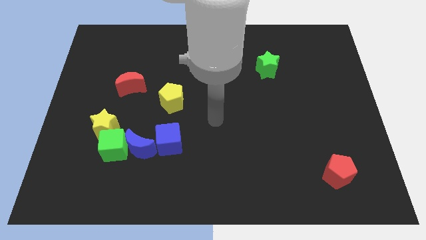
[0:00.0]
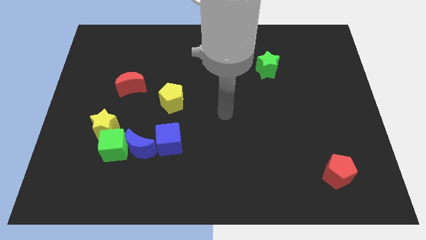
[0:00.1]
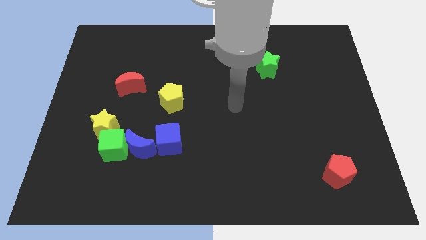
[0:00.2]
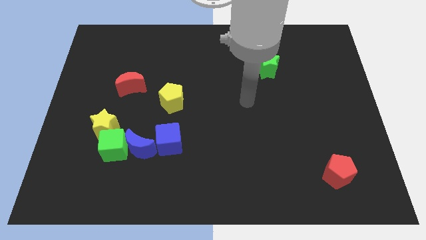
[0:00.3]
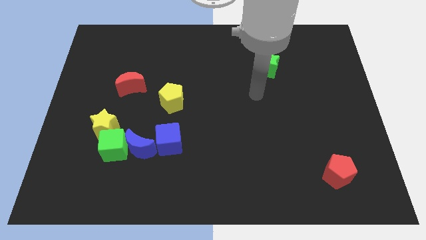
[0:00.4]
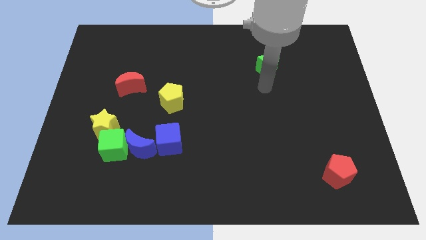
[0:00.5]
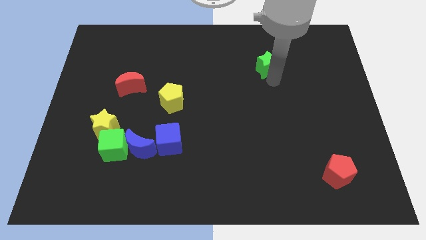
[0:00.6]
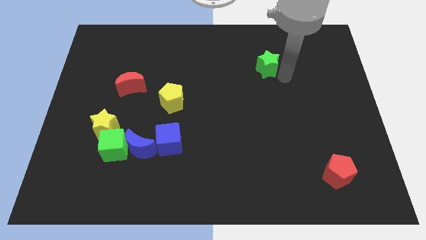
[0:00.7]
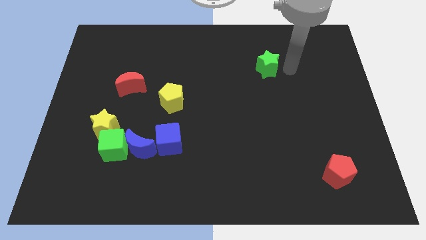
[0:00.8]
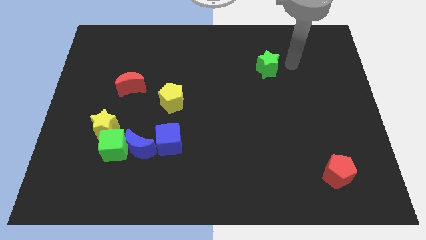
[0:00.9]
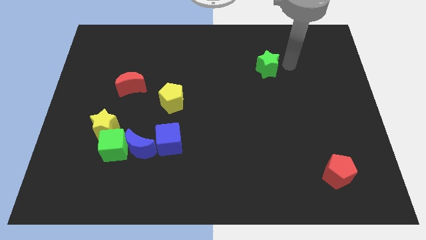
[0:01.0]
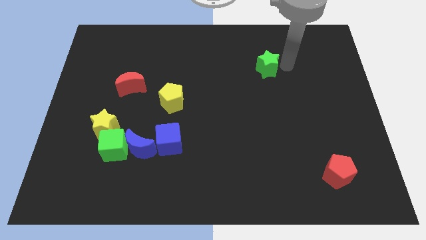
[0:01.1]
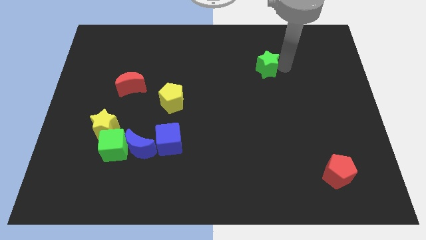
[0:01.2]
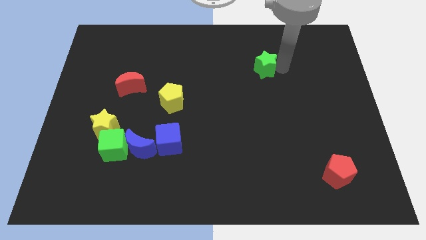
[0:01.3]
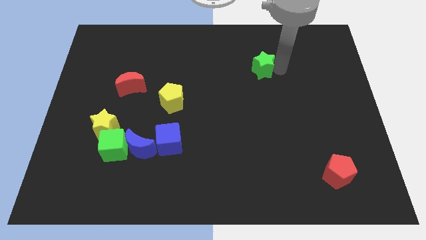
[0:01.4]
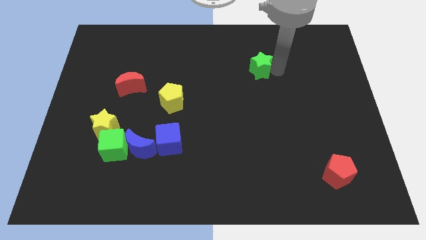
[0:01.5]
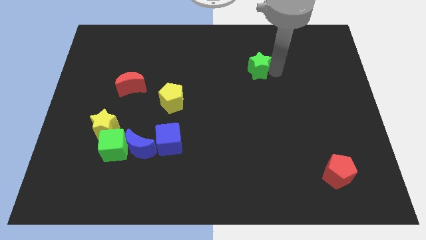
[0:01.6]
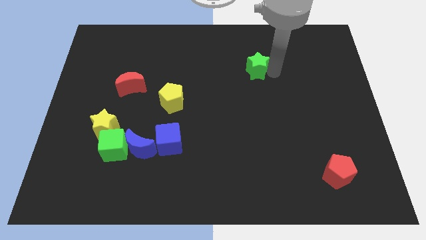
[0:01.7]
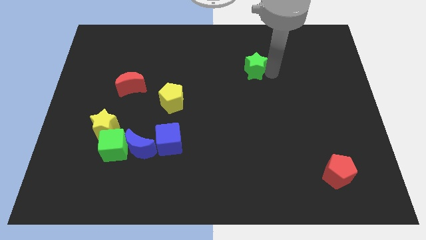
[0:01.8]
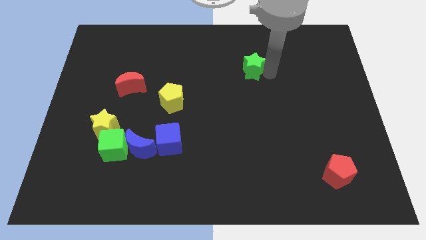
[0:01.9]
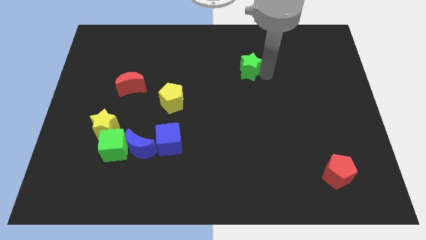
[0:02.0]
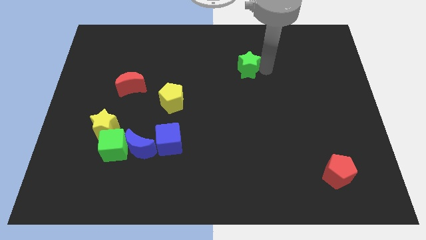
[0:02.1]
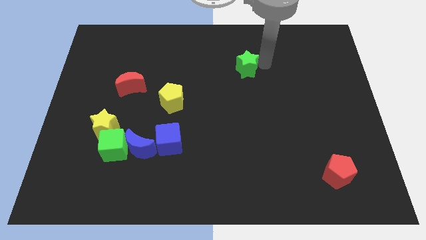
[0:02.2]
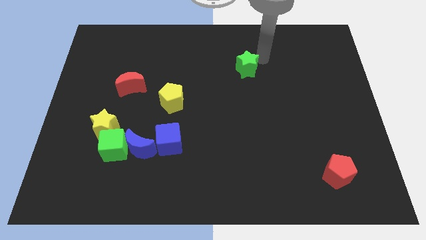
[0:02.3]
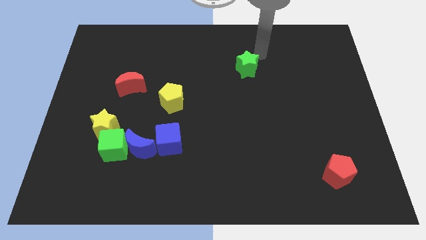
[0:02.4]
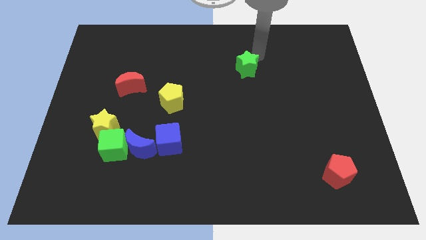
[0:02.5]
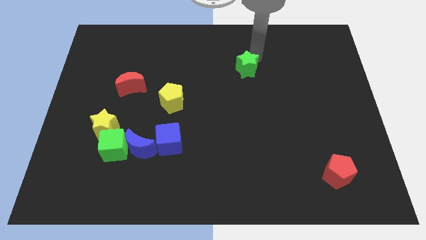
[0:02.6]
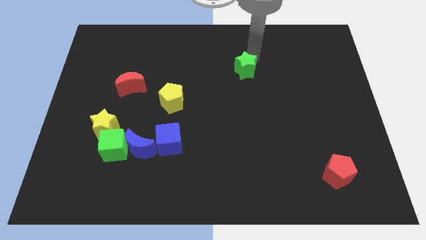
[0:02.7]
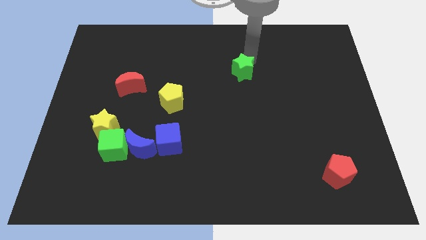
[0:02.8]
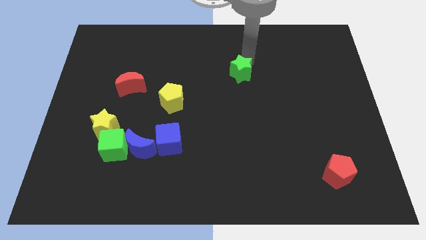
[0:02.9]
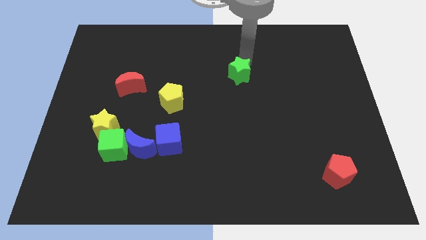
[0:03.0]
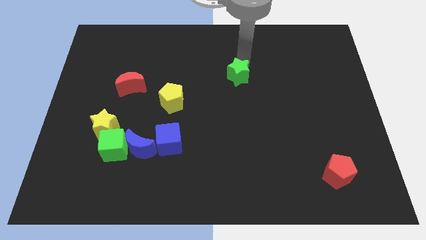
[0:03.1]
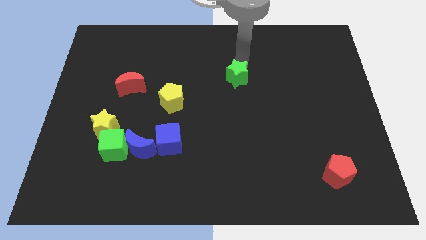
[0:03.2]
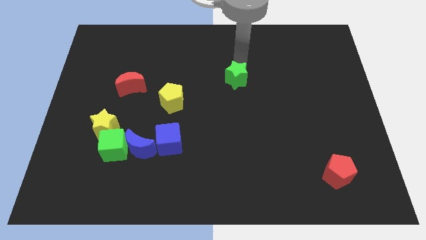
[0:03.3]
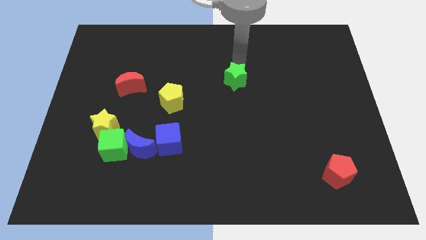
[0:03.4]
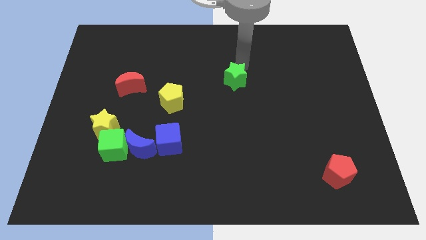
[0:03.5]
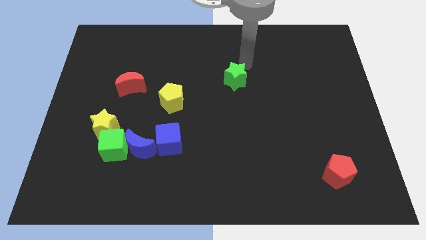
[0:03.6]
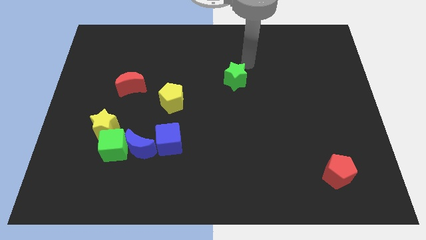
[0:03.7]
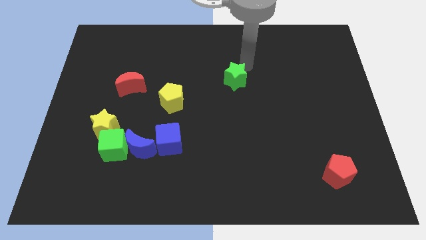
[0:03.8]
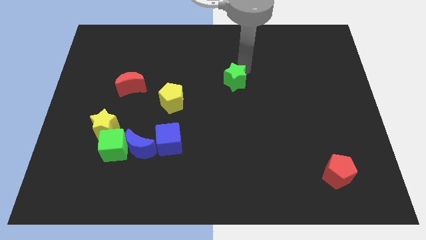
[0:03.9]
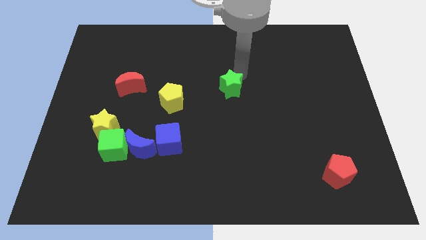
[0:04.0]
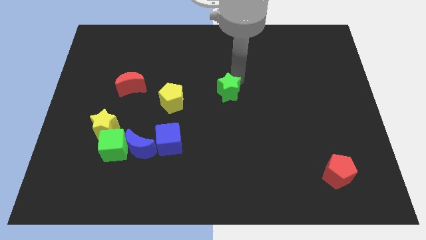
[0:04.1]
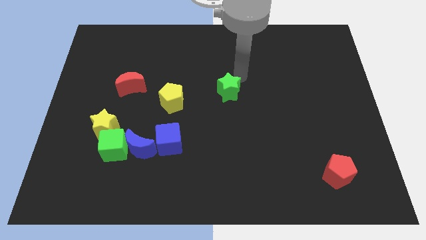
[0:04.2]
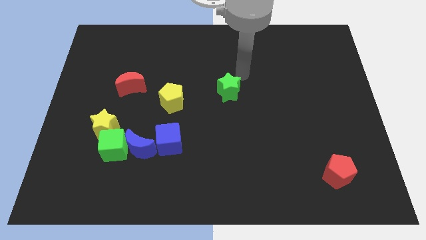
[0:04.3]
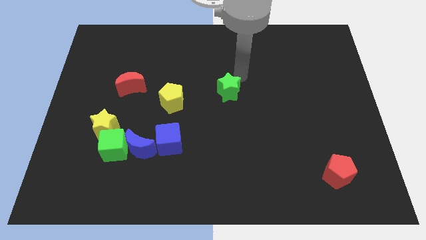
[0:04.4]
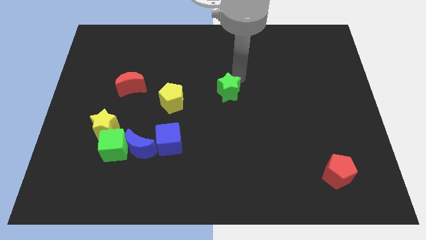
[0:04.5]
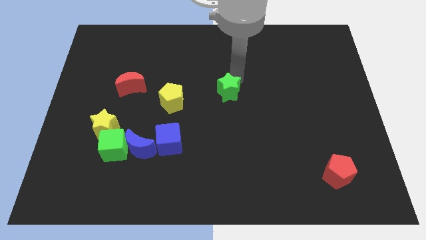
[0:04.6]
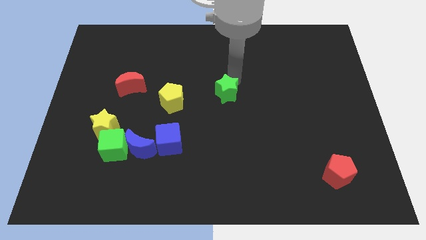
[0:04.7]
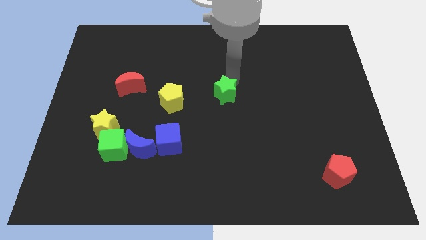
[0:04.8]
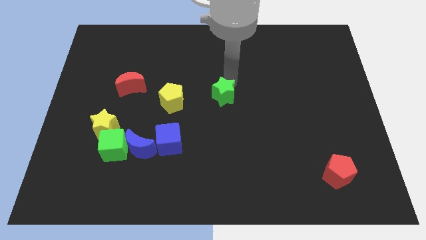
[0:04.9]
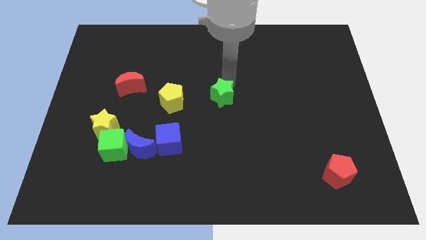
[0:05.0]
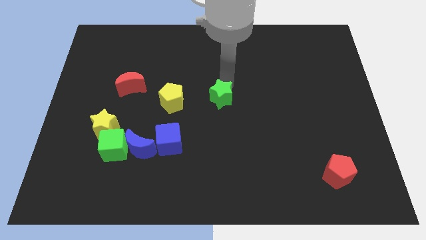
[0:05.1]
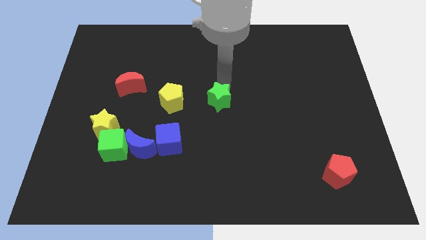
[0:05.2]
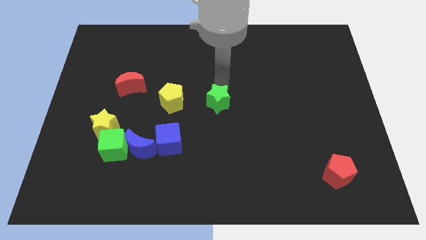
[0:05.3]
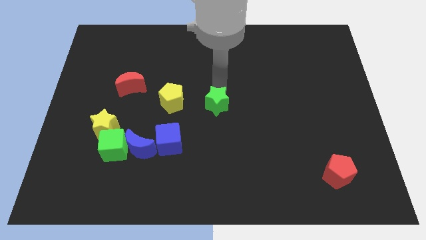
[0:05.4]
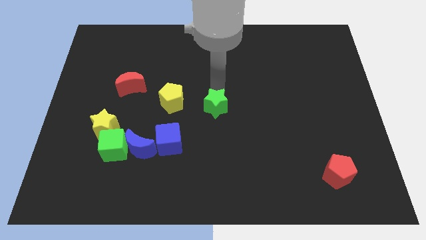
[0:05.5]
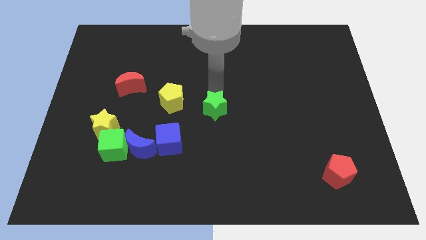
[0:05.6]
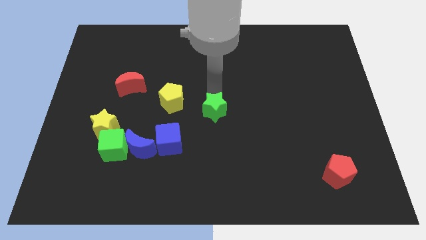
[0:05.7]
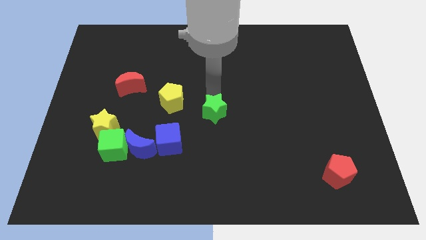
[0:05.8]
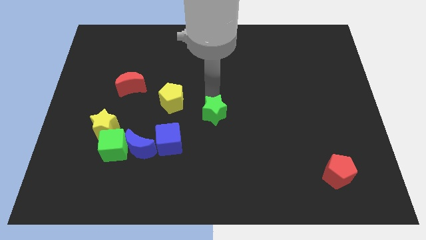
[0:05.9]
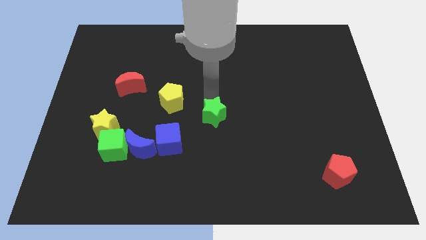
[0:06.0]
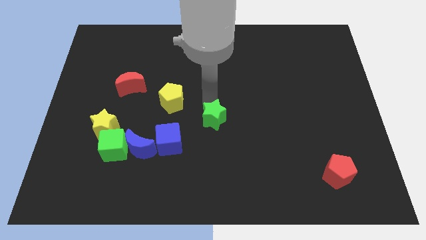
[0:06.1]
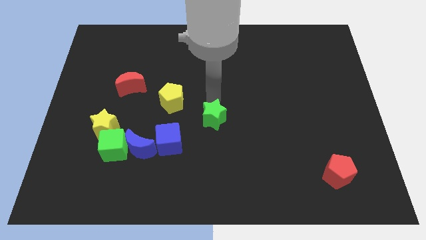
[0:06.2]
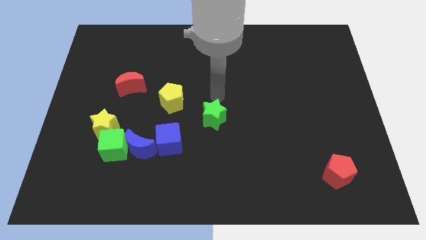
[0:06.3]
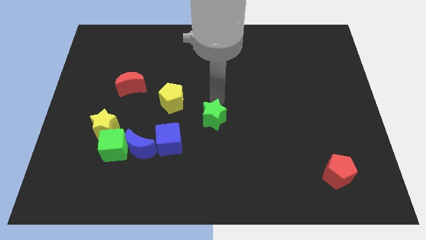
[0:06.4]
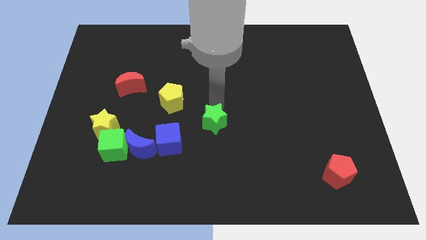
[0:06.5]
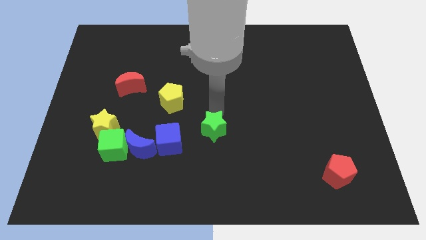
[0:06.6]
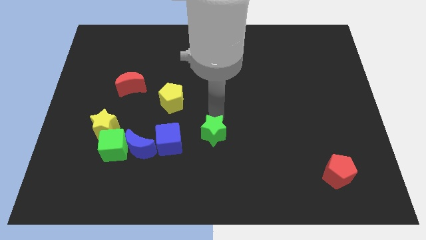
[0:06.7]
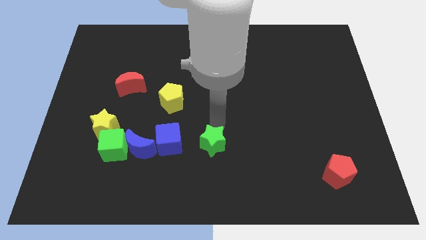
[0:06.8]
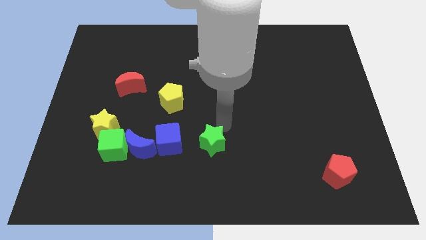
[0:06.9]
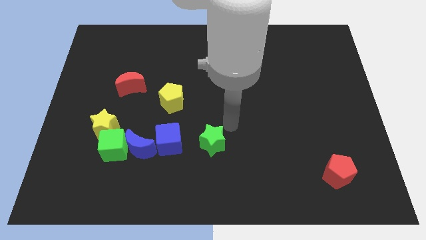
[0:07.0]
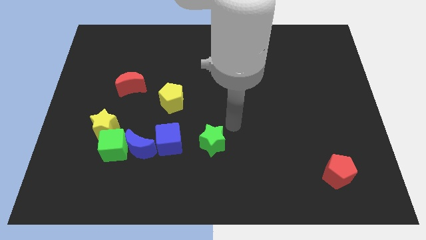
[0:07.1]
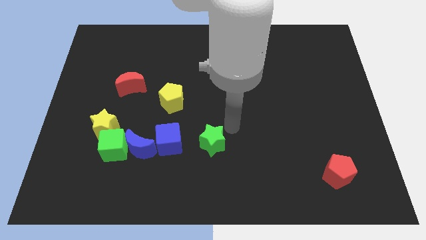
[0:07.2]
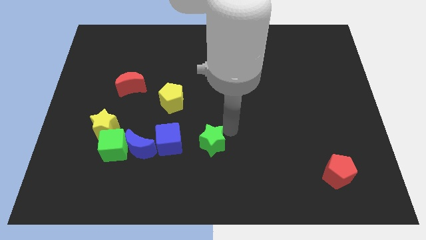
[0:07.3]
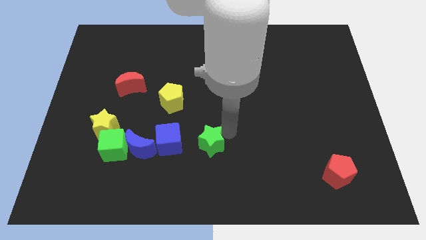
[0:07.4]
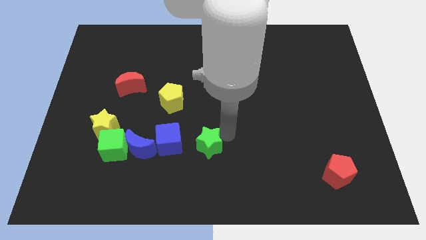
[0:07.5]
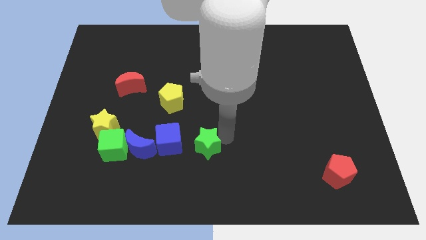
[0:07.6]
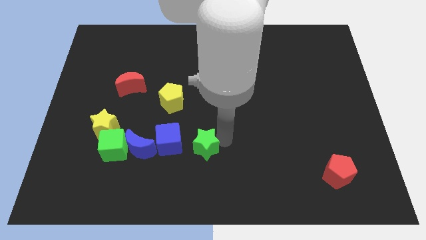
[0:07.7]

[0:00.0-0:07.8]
slide the green star to the bottom right of the blue cube
